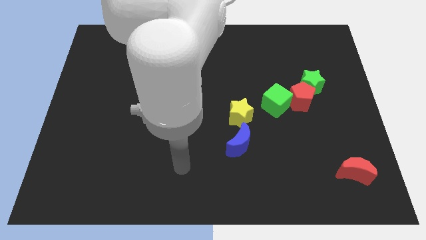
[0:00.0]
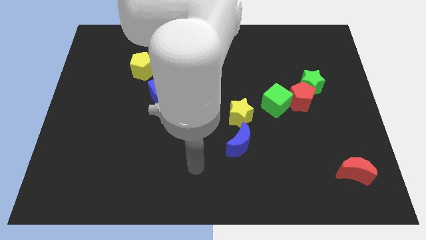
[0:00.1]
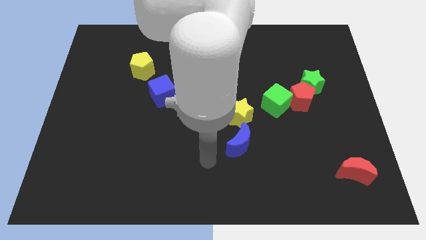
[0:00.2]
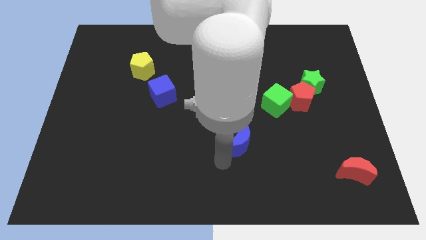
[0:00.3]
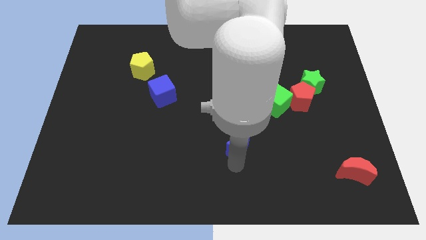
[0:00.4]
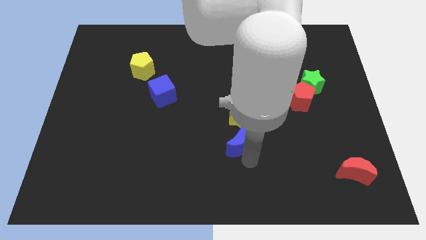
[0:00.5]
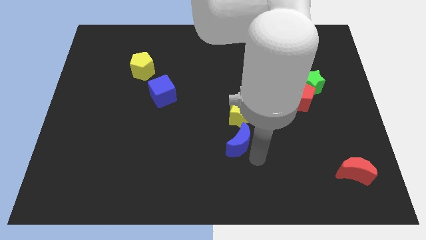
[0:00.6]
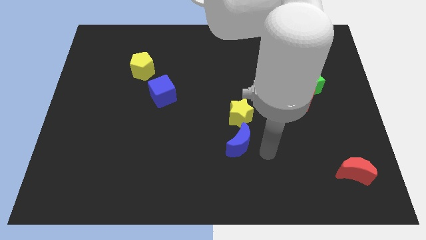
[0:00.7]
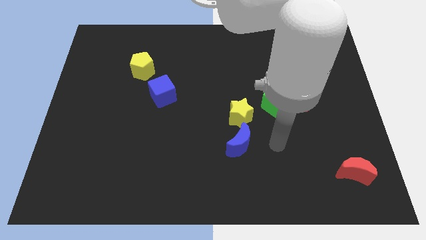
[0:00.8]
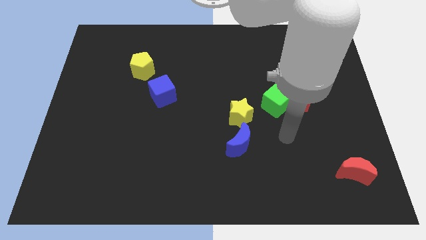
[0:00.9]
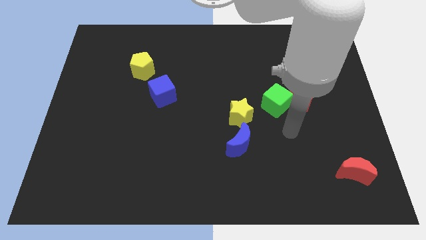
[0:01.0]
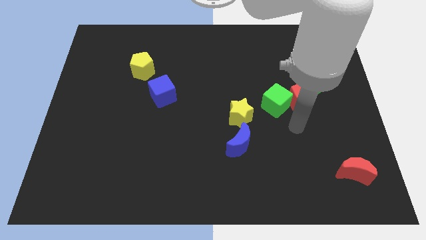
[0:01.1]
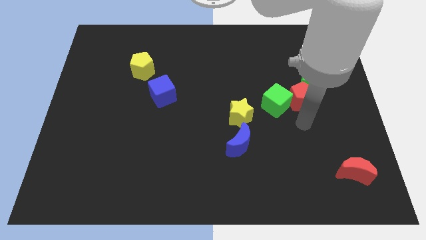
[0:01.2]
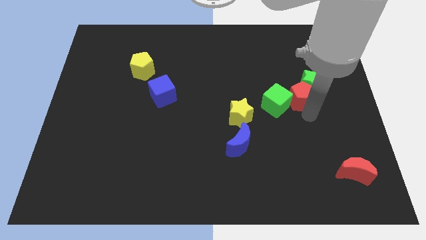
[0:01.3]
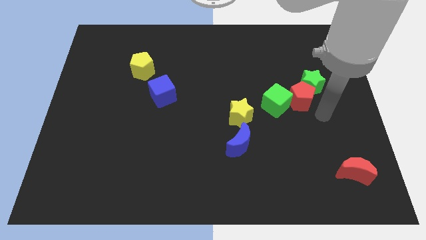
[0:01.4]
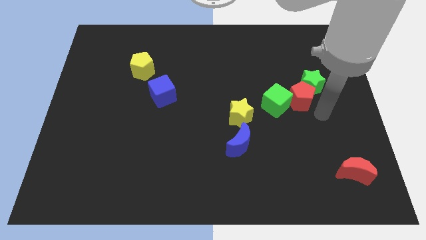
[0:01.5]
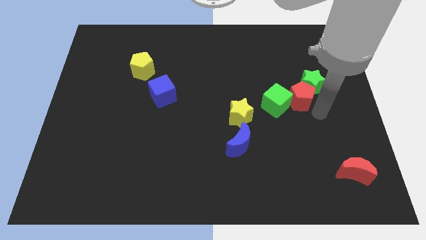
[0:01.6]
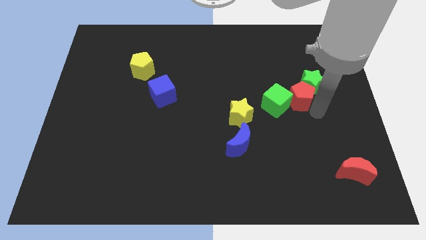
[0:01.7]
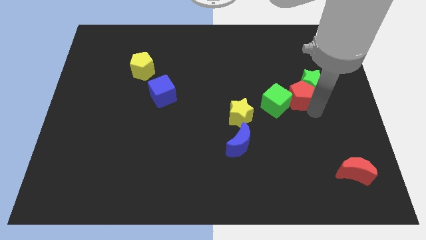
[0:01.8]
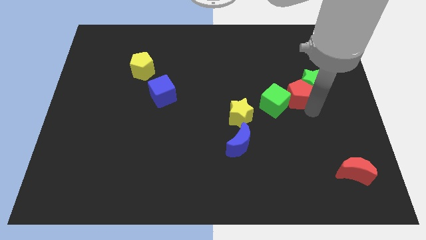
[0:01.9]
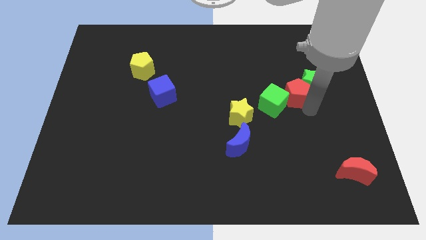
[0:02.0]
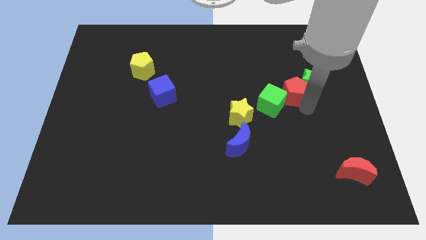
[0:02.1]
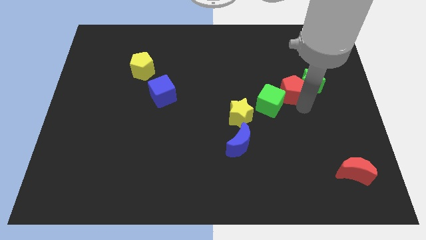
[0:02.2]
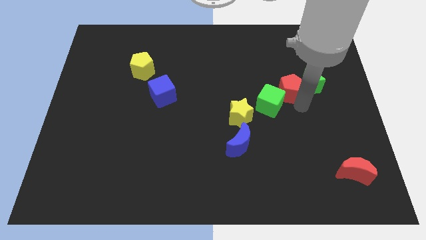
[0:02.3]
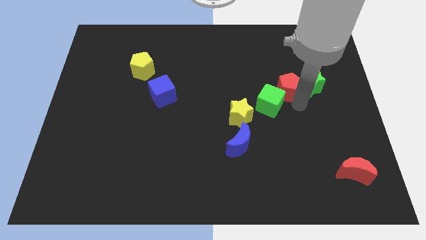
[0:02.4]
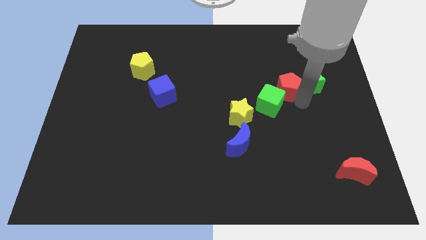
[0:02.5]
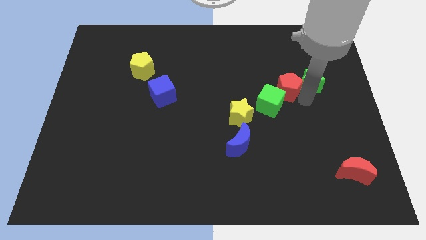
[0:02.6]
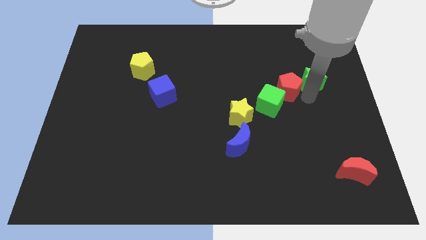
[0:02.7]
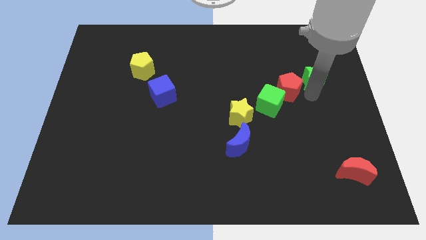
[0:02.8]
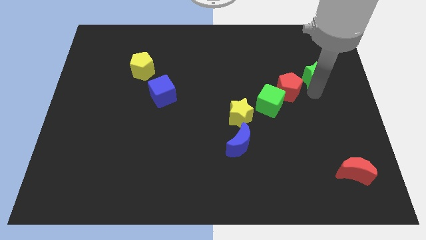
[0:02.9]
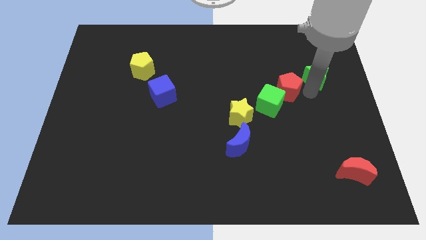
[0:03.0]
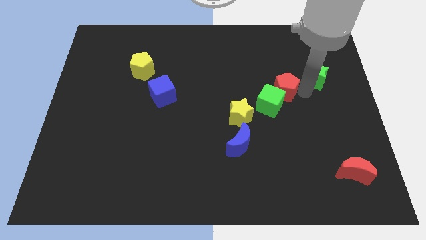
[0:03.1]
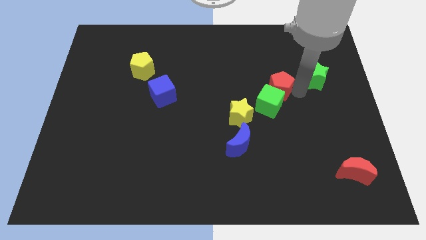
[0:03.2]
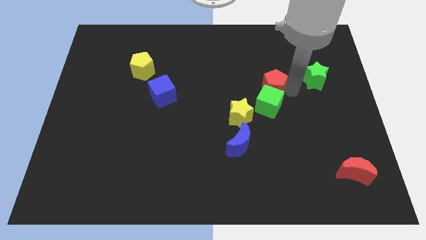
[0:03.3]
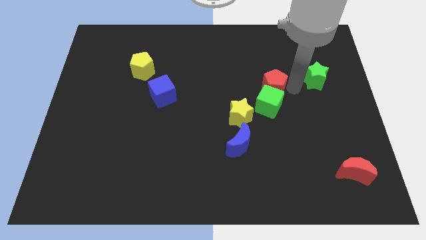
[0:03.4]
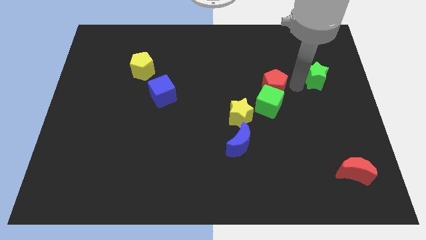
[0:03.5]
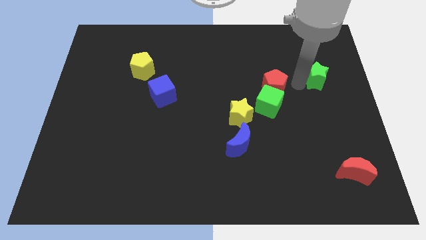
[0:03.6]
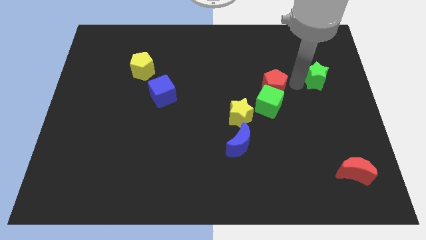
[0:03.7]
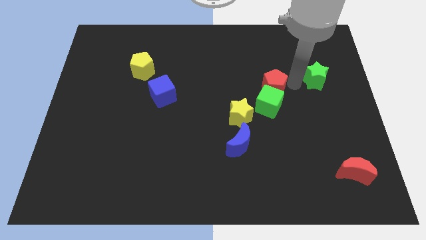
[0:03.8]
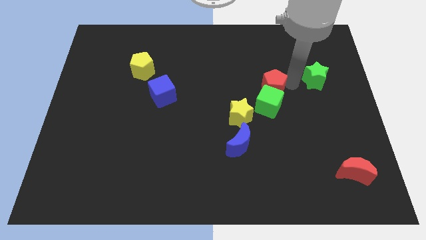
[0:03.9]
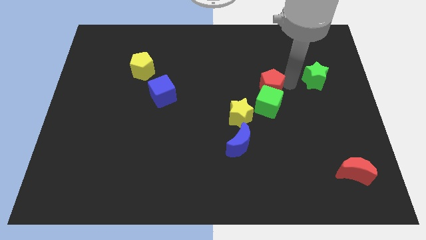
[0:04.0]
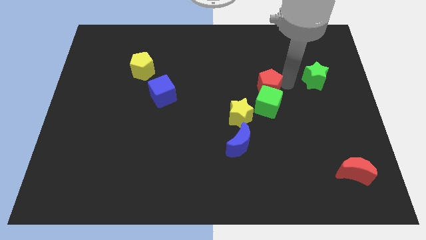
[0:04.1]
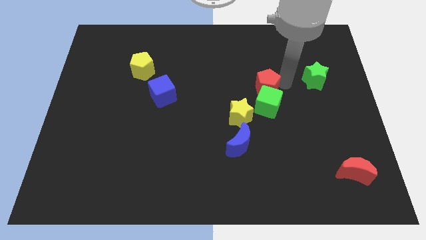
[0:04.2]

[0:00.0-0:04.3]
move the red pentagon left a little

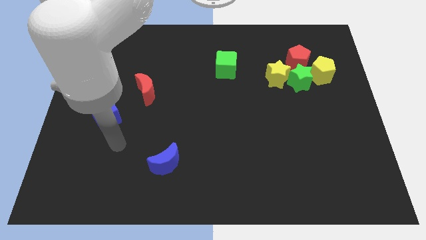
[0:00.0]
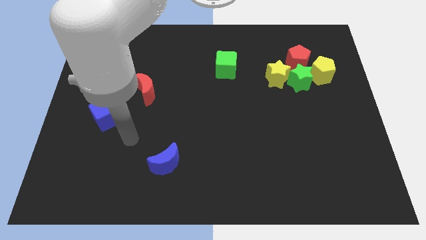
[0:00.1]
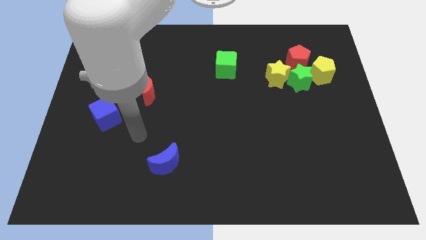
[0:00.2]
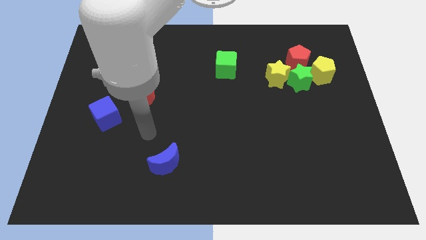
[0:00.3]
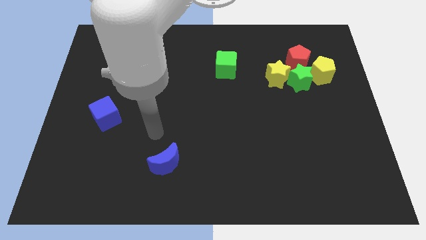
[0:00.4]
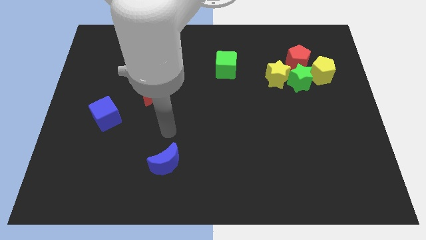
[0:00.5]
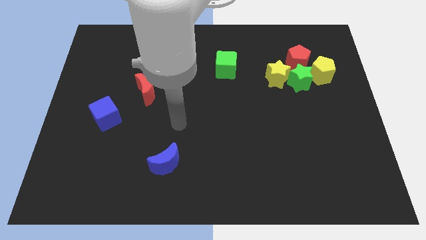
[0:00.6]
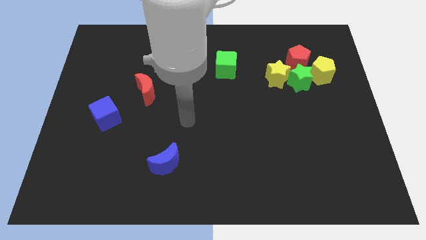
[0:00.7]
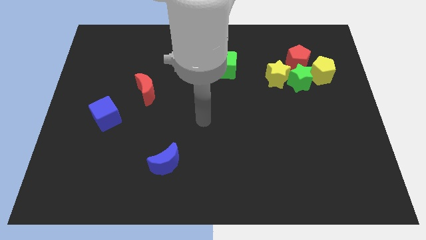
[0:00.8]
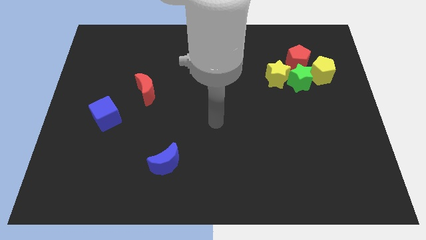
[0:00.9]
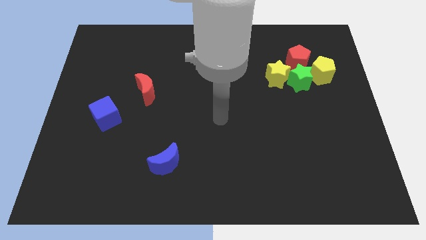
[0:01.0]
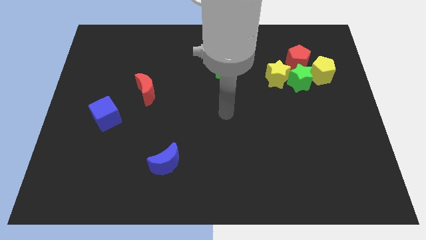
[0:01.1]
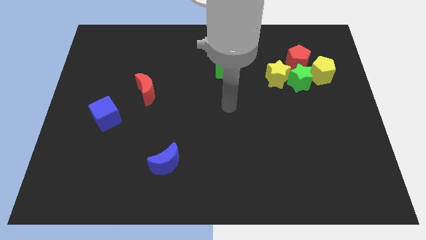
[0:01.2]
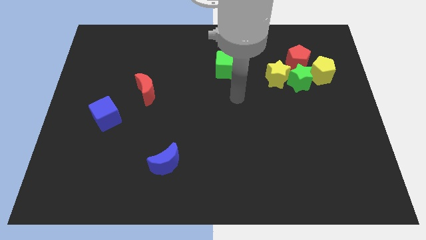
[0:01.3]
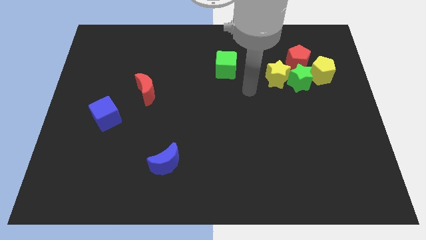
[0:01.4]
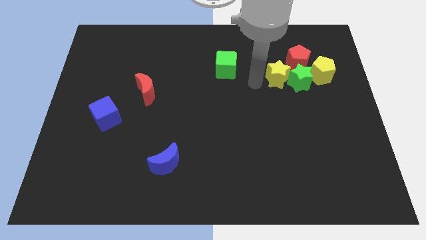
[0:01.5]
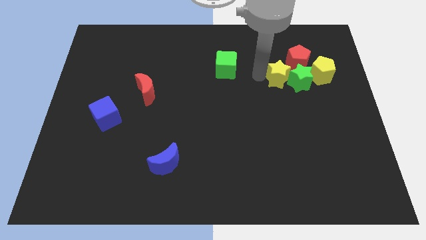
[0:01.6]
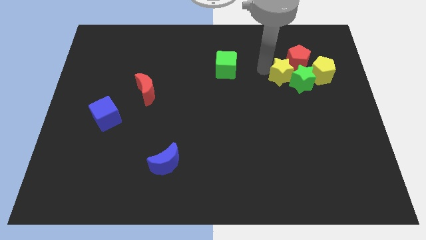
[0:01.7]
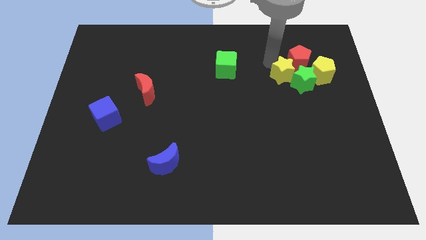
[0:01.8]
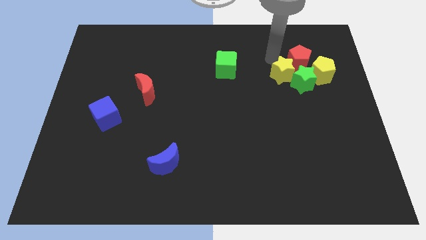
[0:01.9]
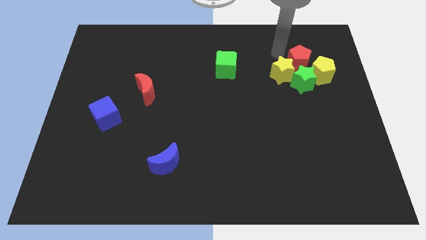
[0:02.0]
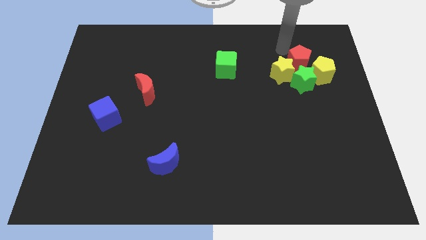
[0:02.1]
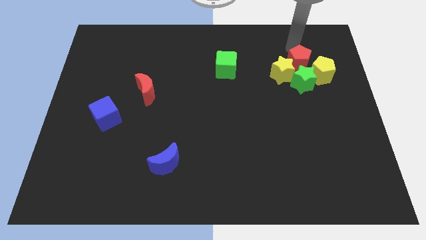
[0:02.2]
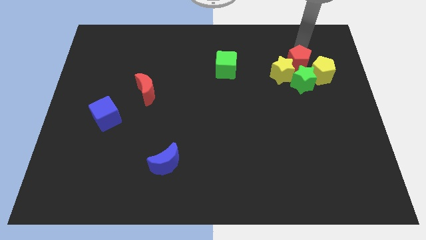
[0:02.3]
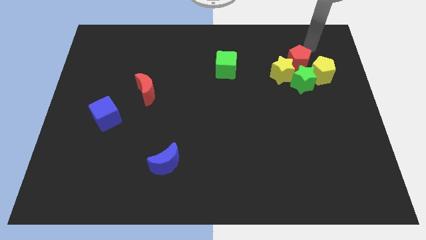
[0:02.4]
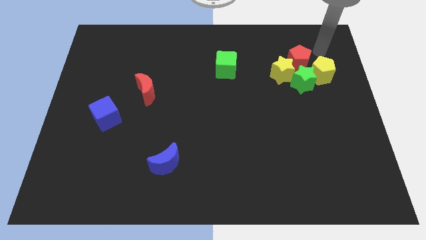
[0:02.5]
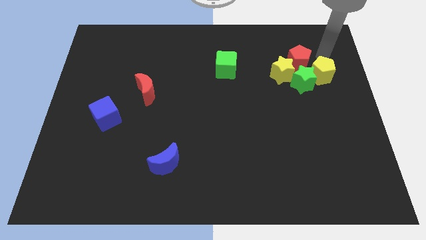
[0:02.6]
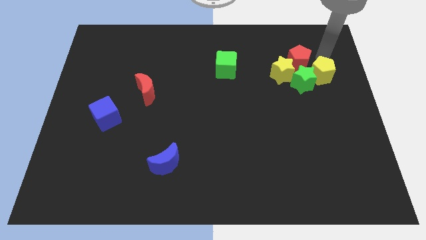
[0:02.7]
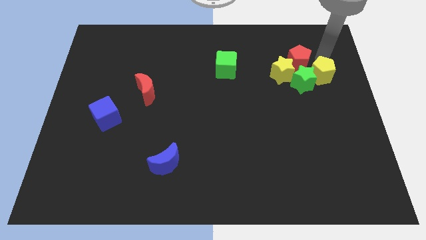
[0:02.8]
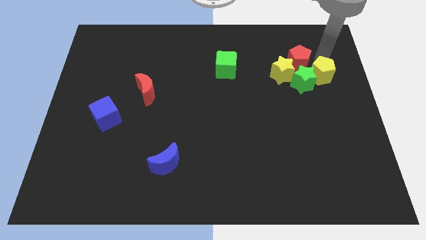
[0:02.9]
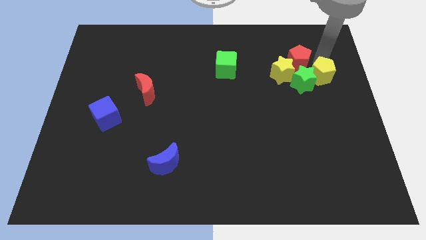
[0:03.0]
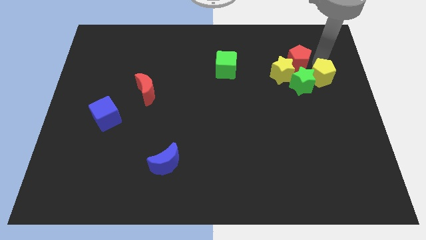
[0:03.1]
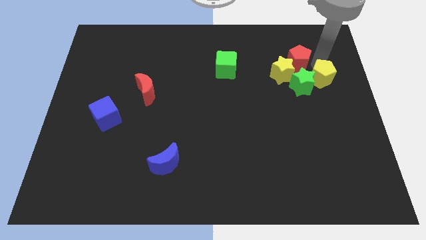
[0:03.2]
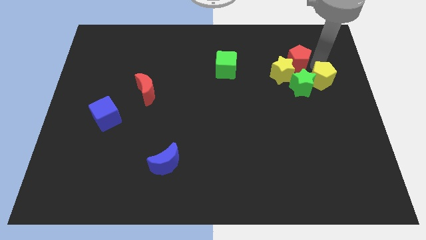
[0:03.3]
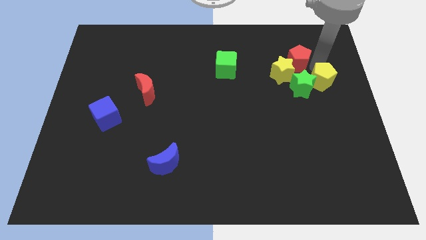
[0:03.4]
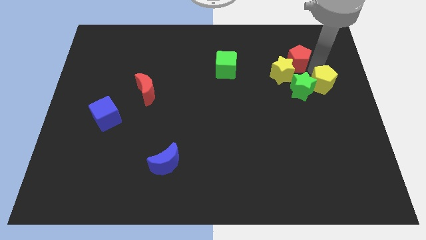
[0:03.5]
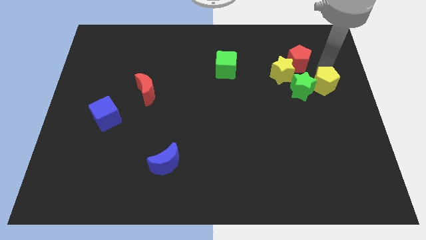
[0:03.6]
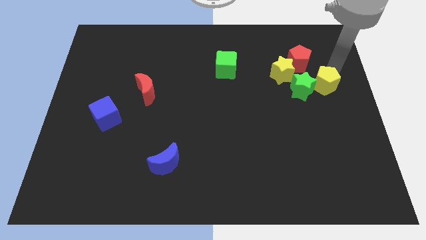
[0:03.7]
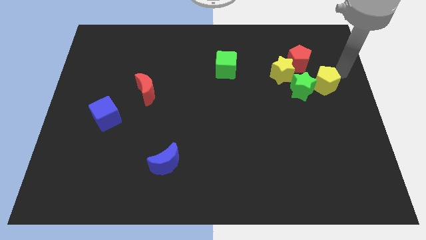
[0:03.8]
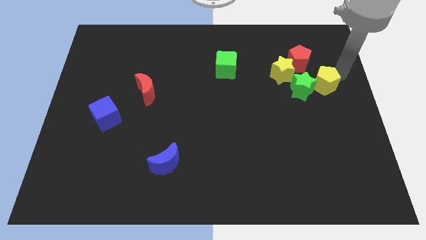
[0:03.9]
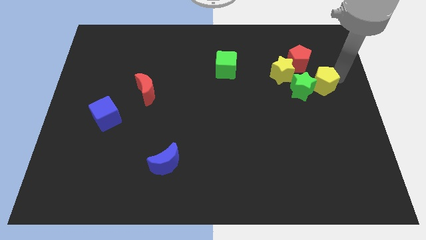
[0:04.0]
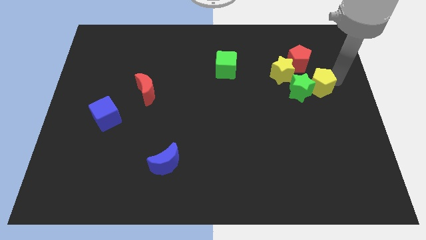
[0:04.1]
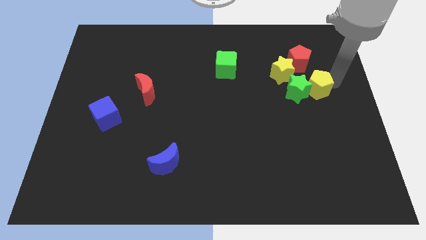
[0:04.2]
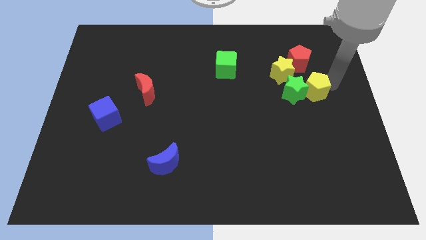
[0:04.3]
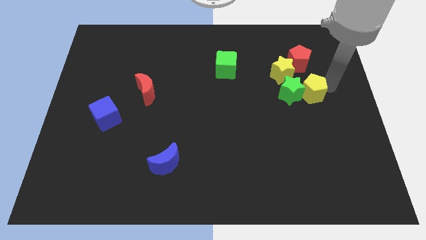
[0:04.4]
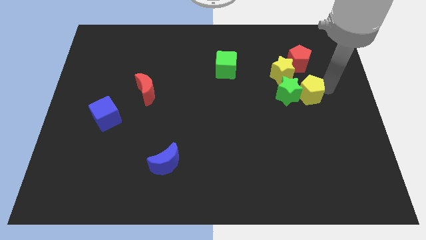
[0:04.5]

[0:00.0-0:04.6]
slightly move the yellow pentagon down and then to the left
